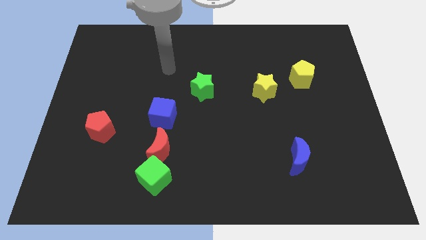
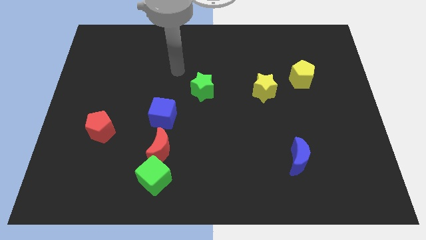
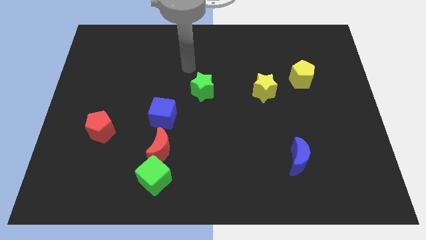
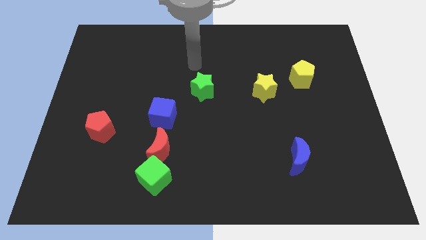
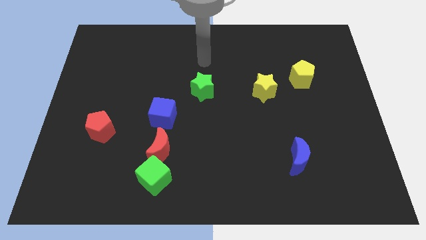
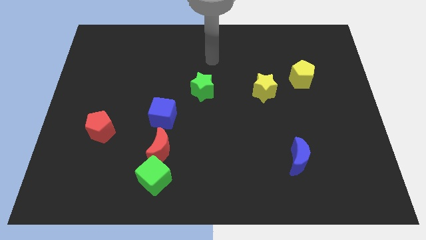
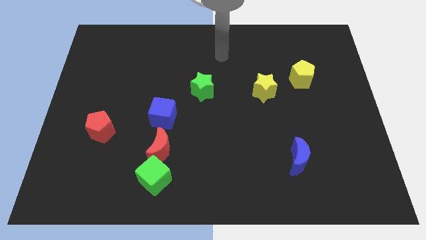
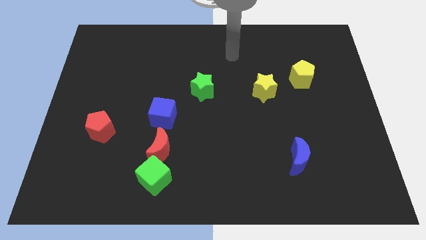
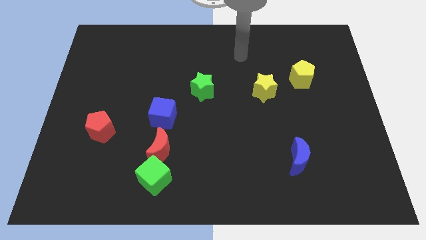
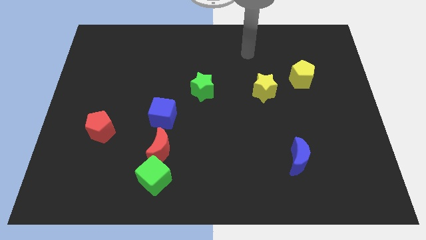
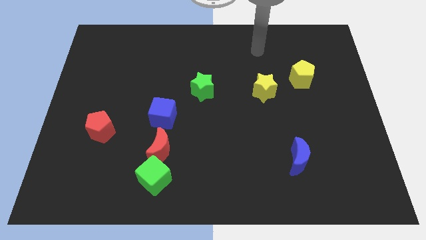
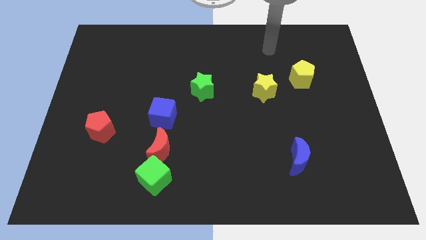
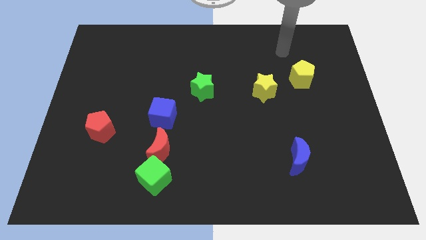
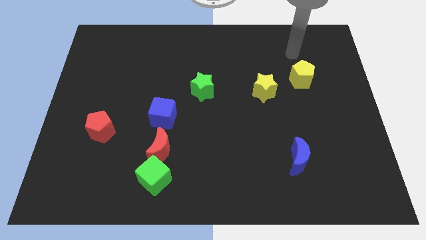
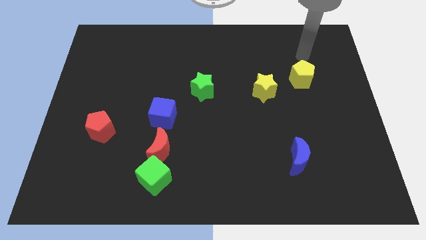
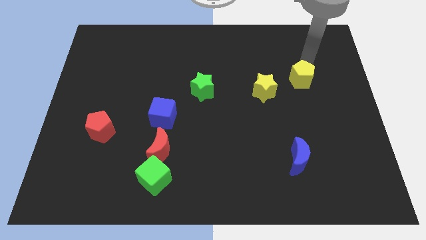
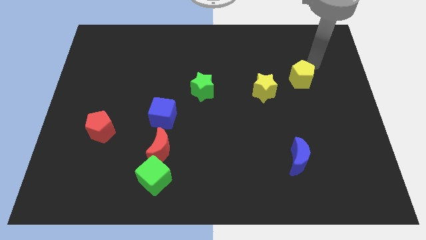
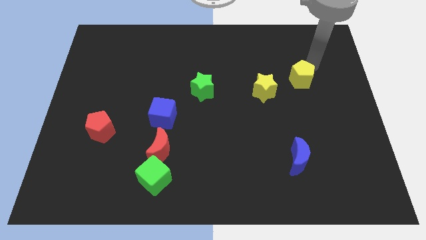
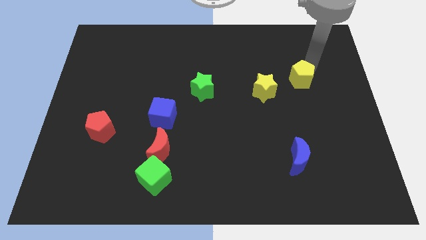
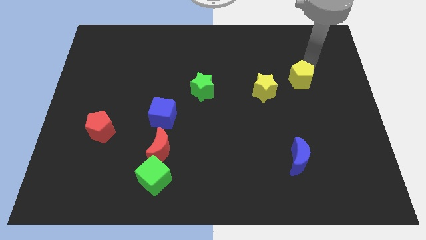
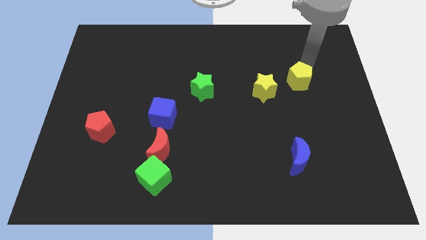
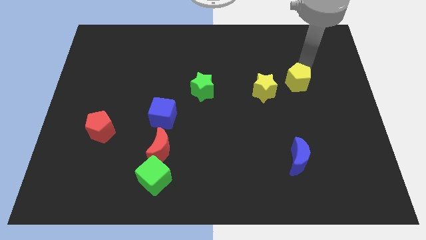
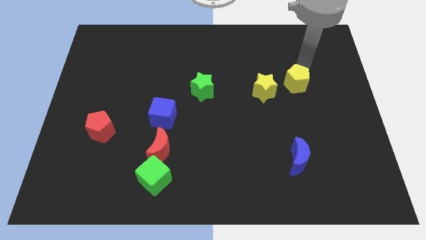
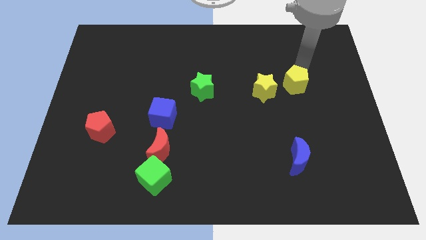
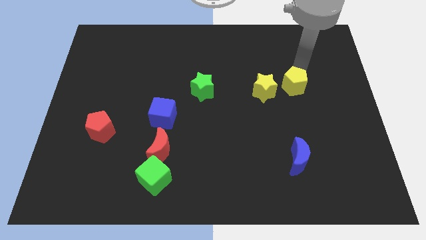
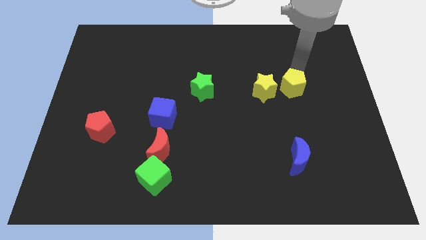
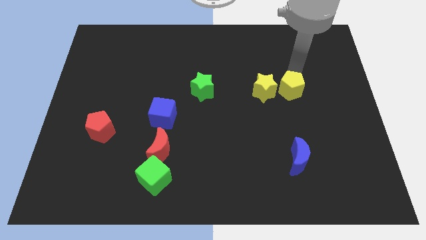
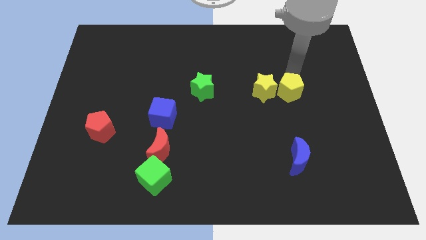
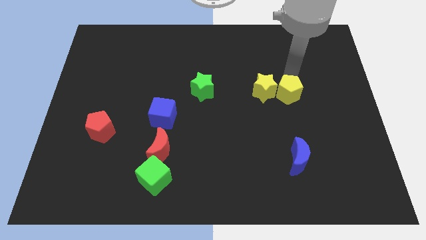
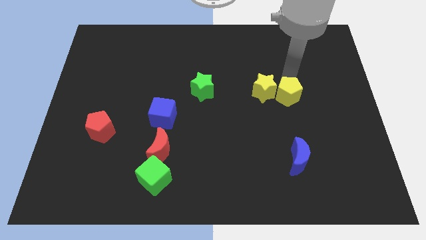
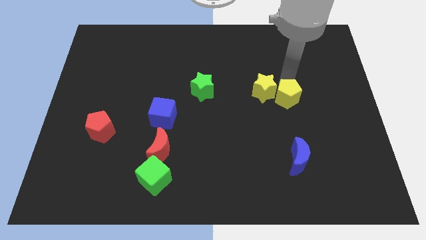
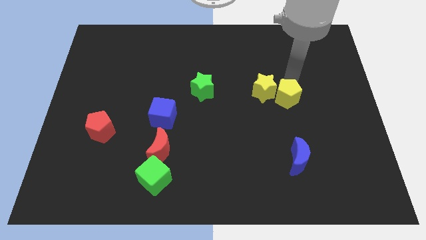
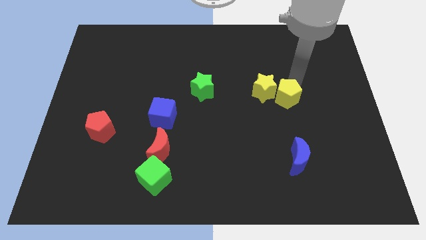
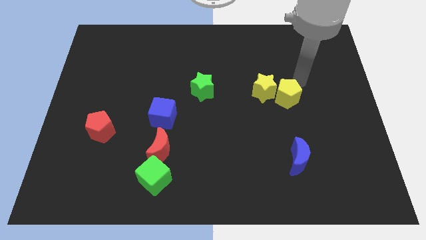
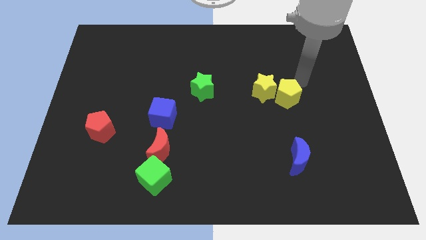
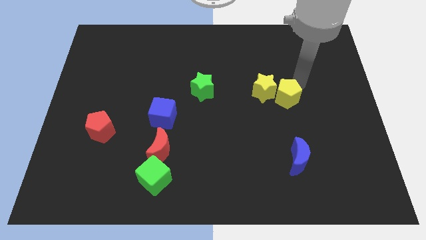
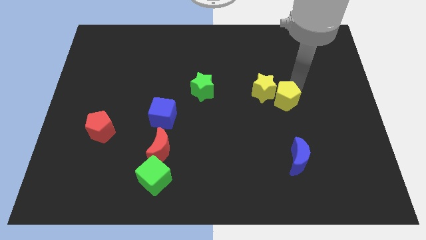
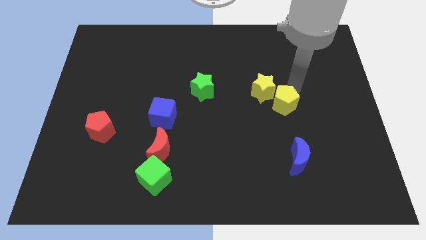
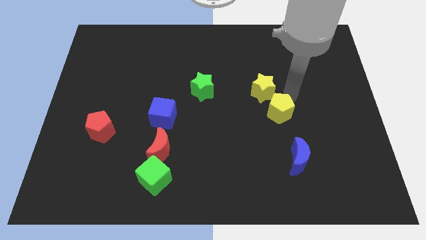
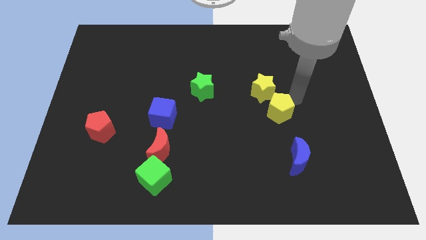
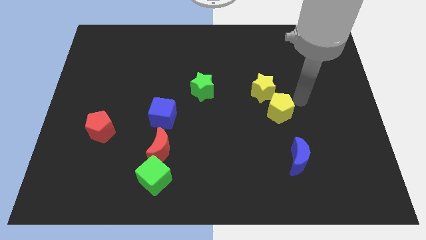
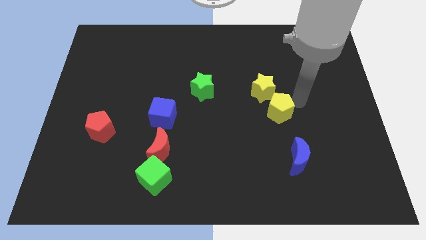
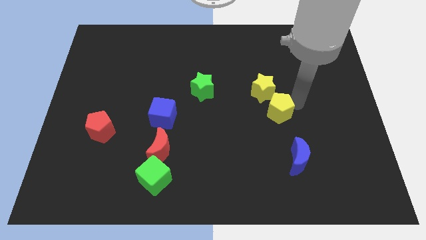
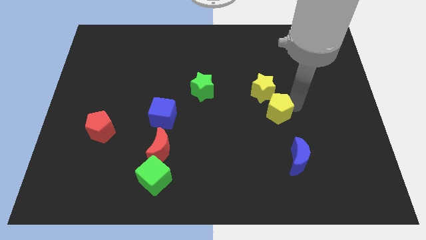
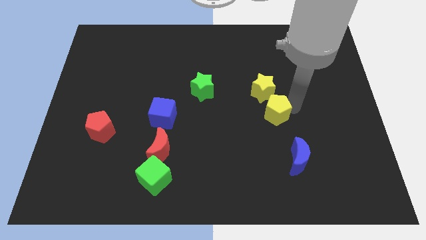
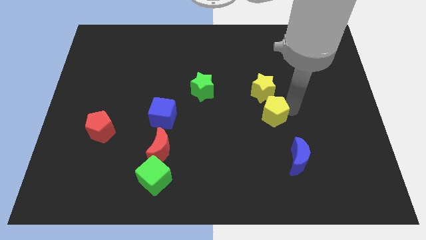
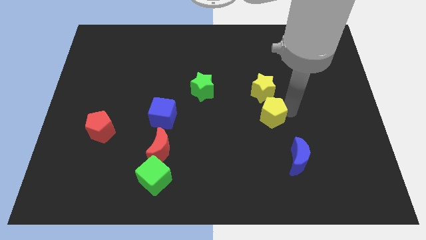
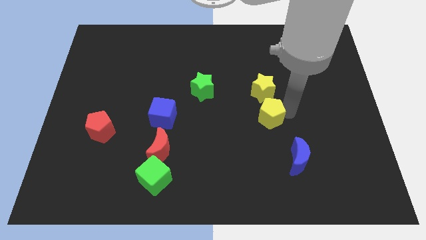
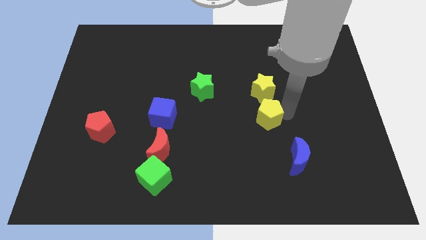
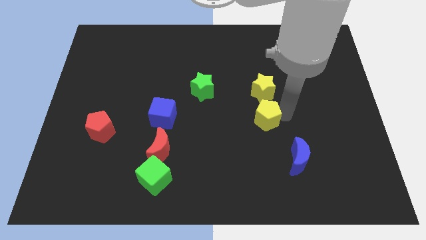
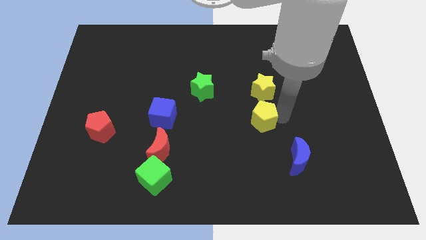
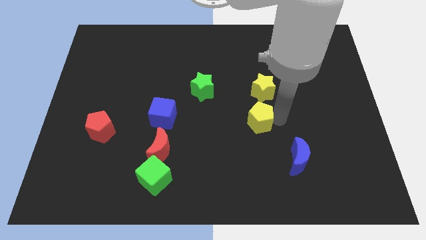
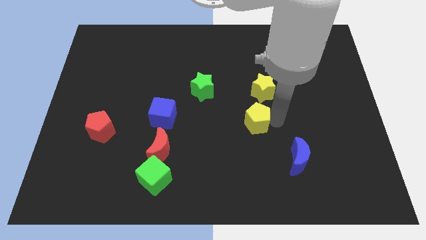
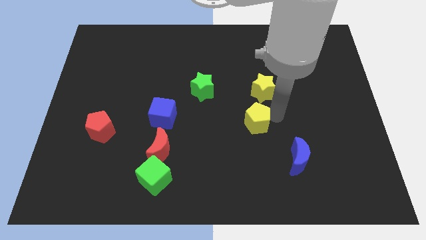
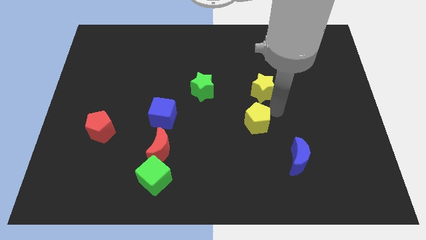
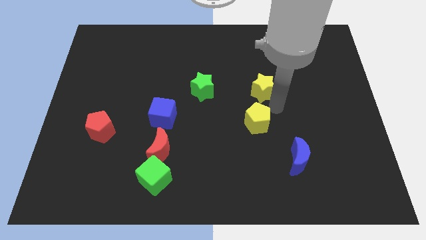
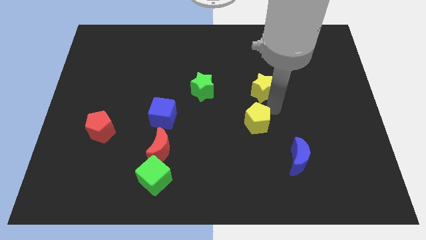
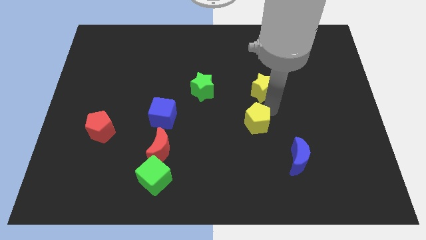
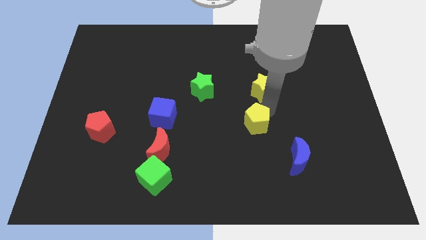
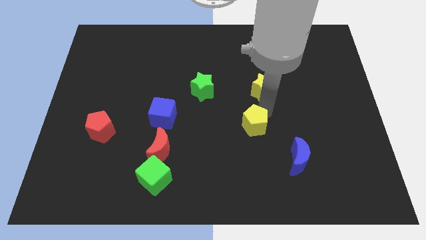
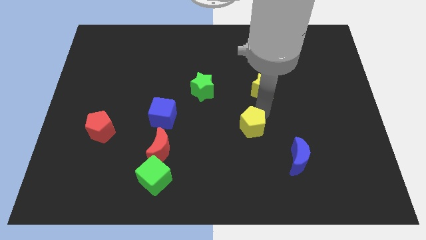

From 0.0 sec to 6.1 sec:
slide the yellow pentagon diagonally downwards and to the left

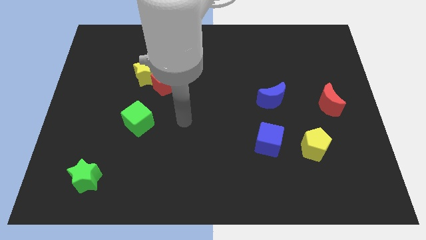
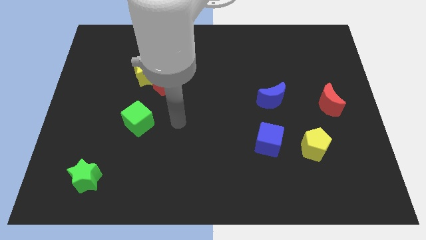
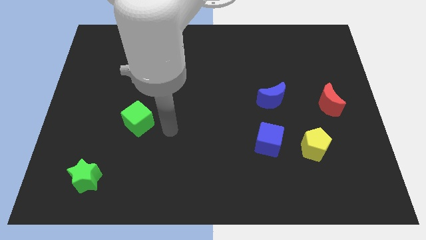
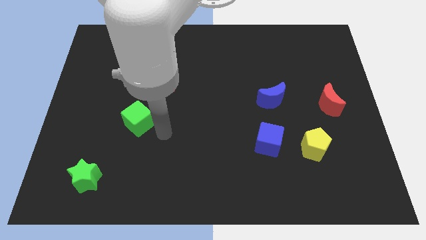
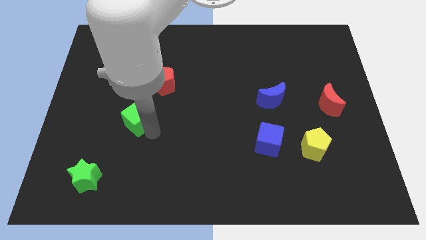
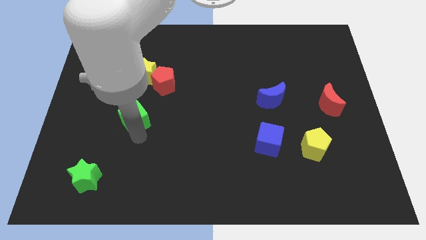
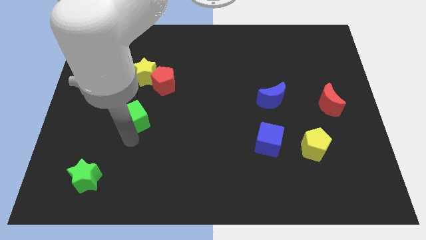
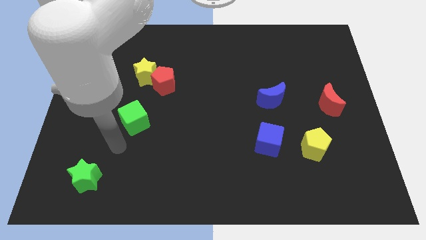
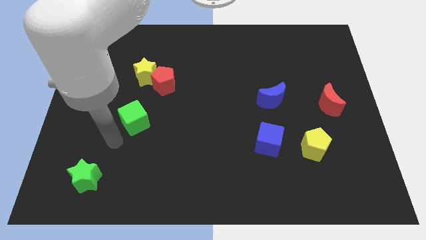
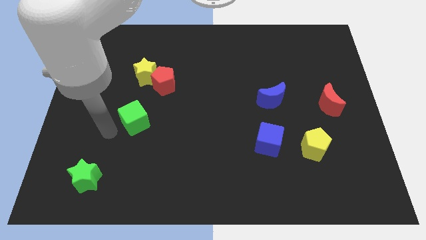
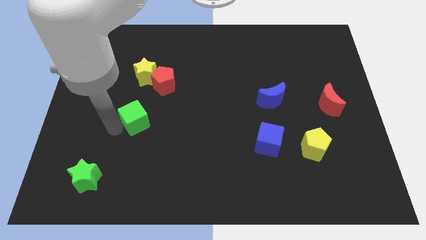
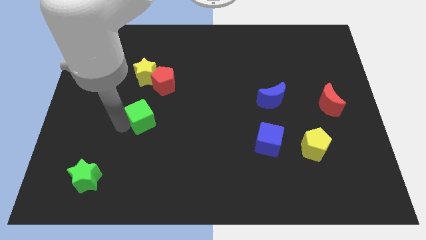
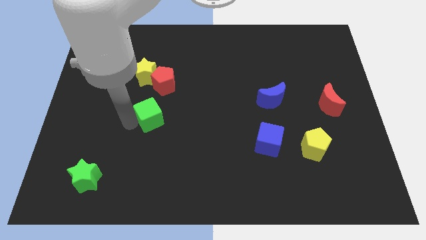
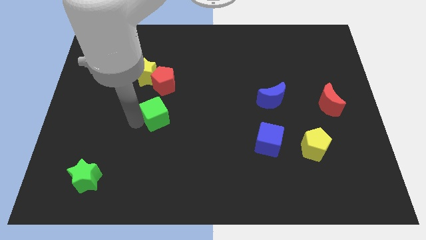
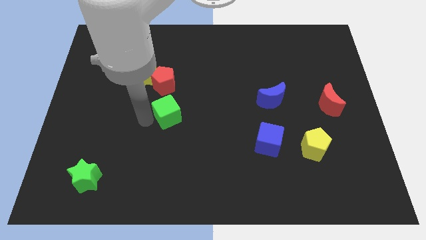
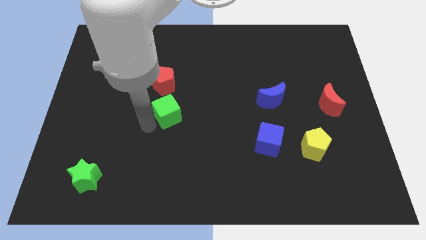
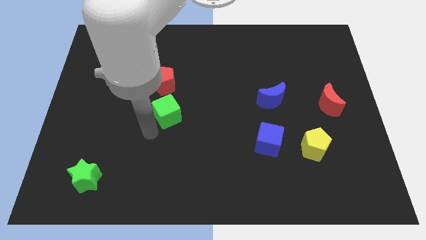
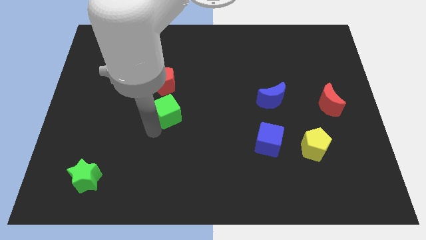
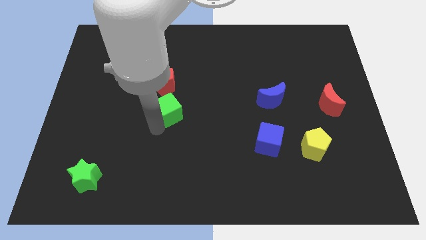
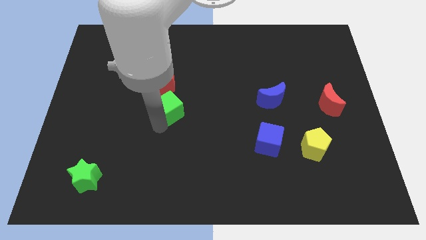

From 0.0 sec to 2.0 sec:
push the green cube somewhat upwards and then right
